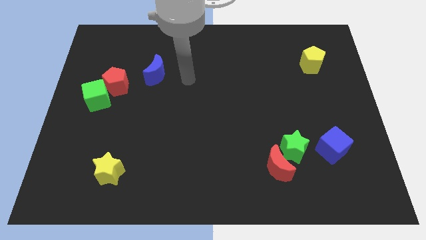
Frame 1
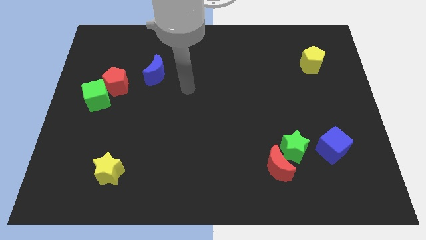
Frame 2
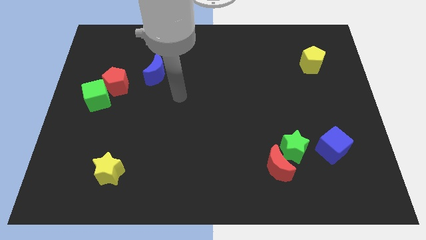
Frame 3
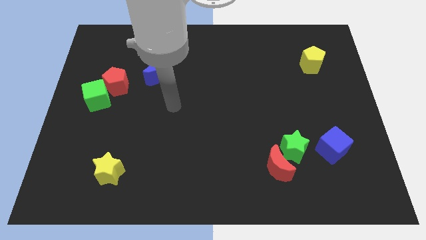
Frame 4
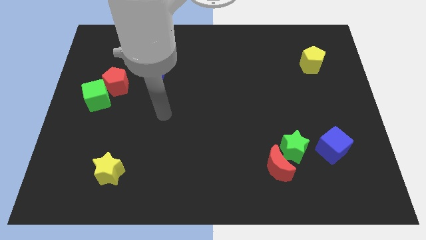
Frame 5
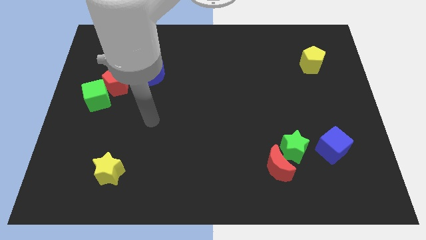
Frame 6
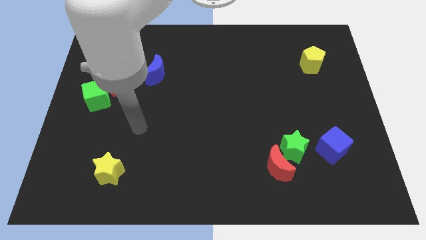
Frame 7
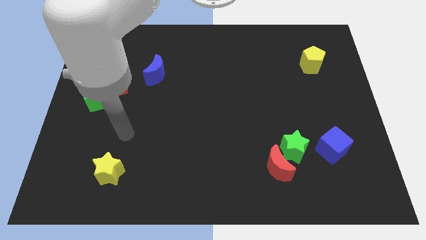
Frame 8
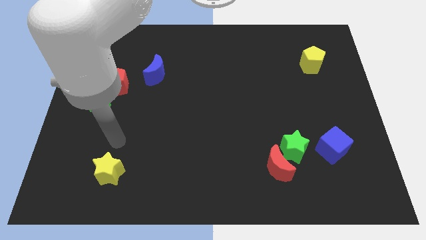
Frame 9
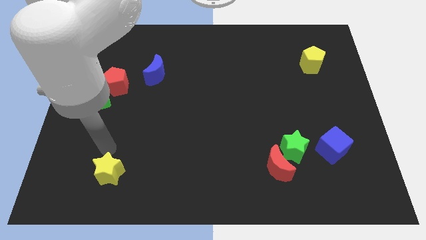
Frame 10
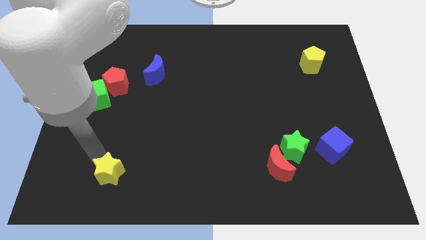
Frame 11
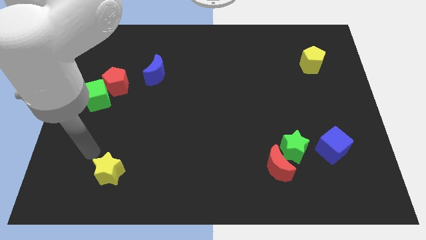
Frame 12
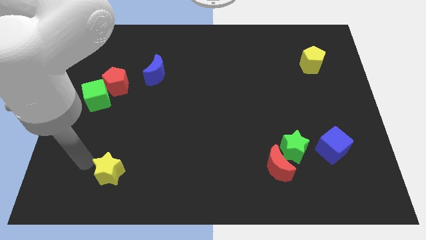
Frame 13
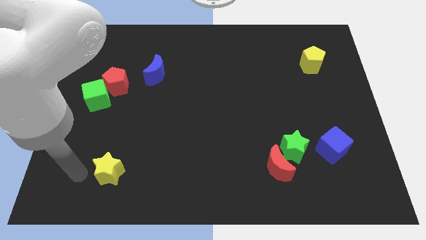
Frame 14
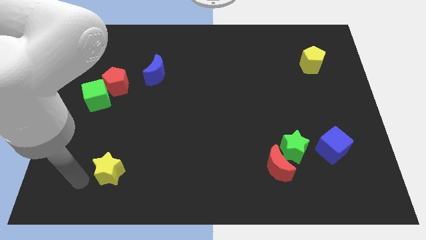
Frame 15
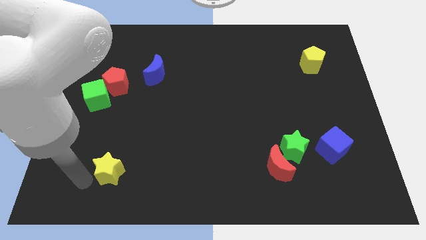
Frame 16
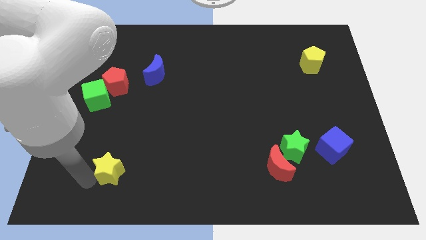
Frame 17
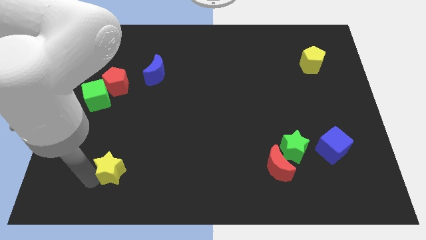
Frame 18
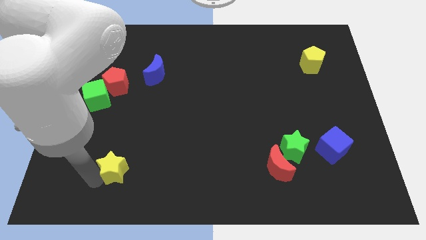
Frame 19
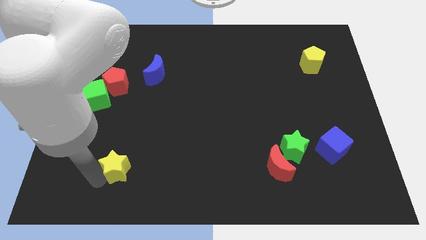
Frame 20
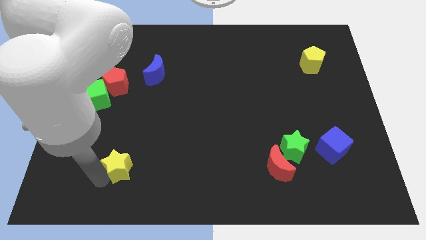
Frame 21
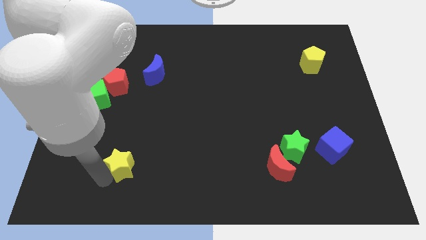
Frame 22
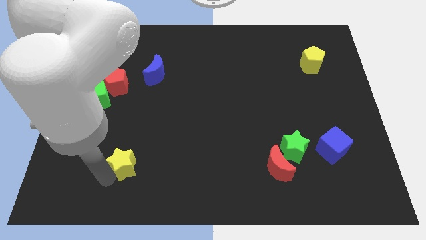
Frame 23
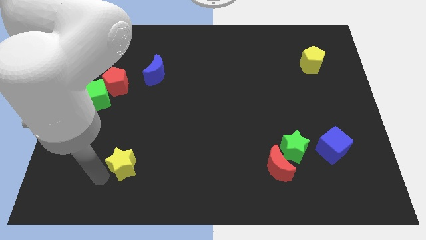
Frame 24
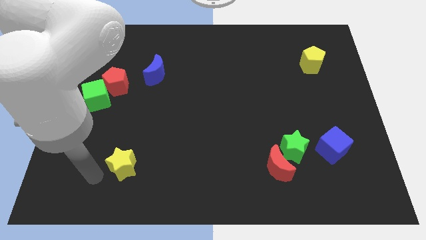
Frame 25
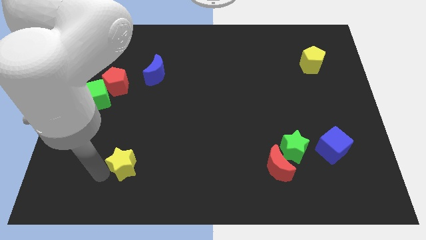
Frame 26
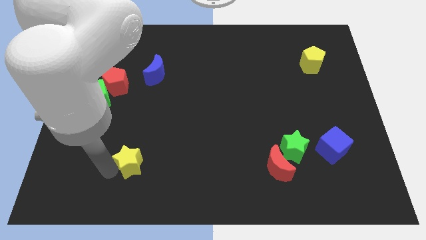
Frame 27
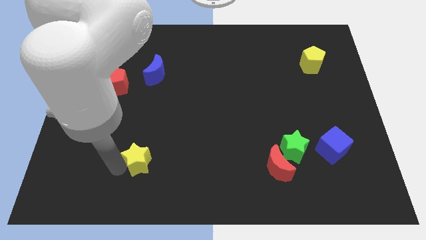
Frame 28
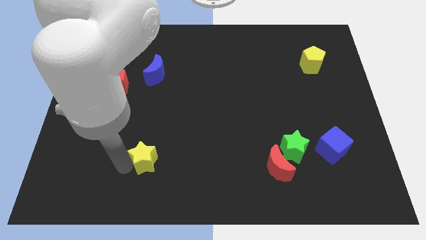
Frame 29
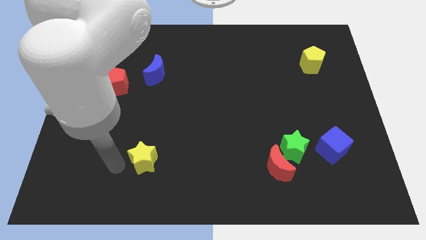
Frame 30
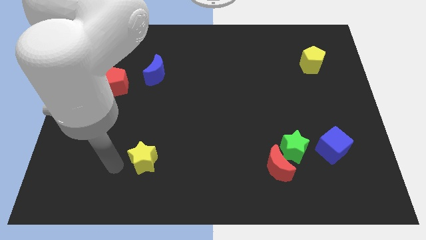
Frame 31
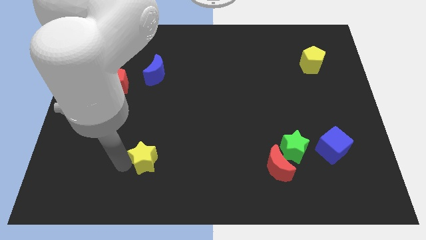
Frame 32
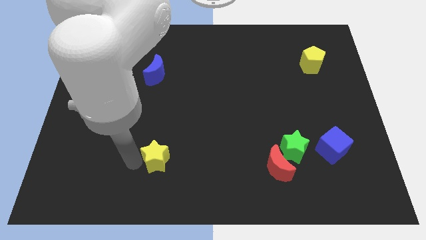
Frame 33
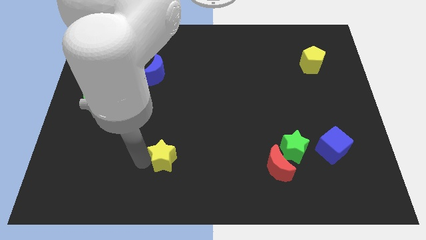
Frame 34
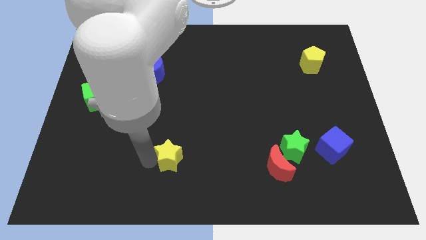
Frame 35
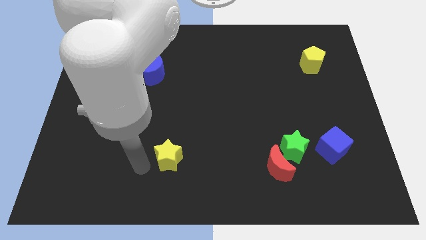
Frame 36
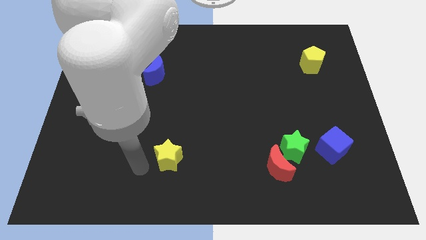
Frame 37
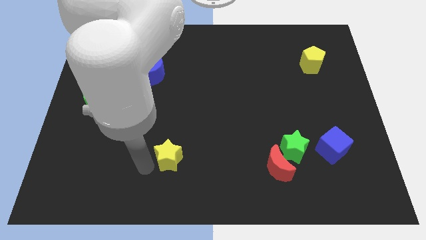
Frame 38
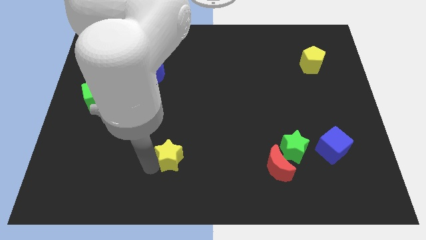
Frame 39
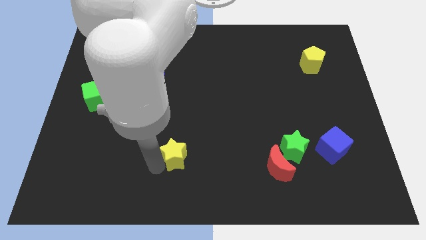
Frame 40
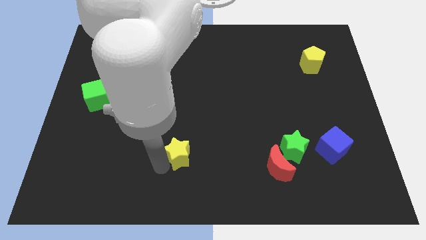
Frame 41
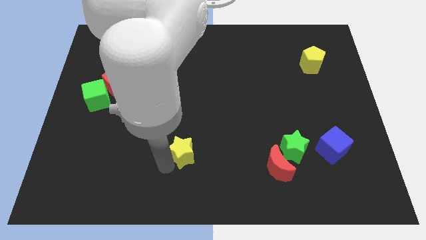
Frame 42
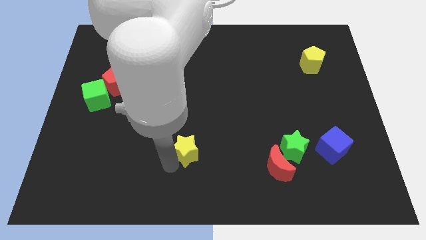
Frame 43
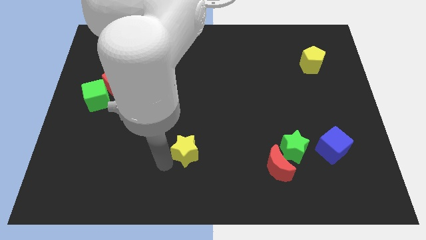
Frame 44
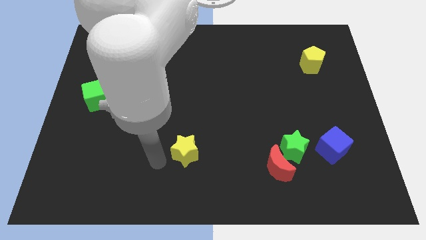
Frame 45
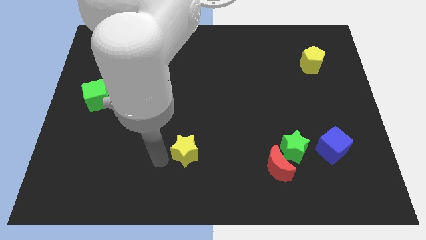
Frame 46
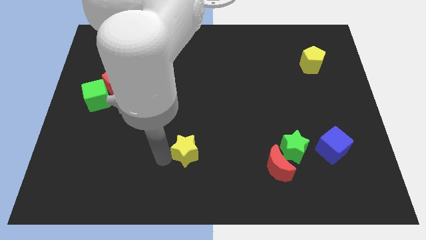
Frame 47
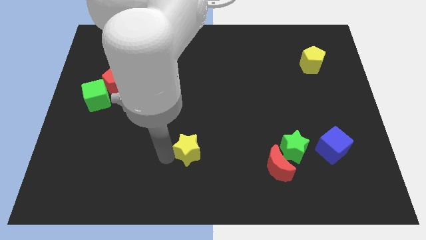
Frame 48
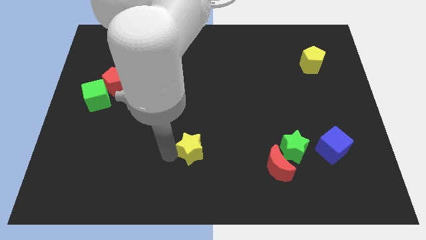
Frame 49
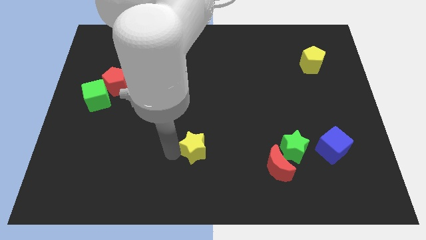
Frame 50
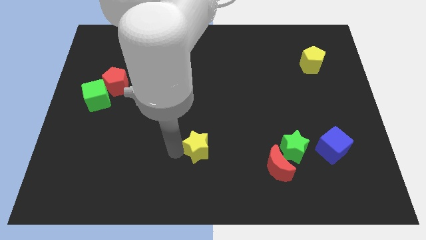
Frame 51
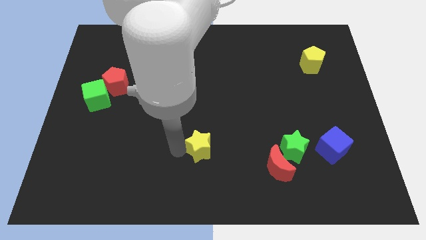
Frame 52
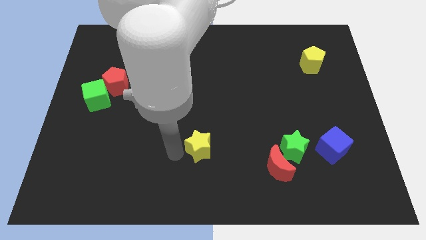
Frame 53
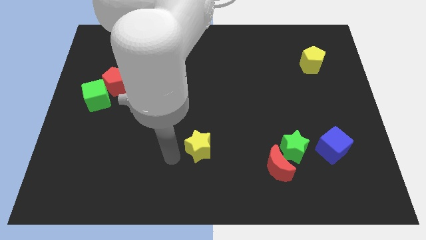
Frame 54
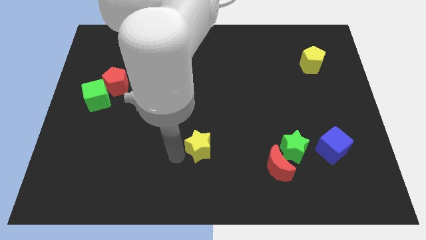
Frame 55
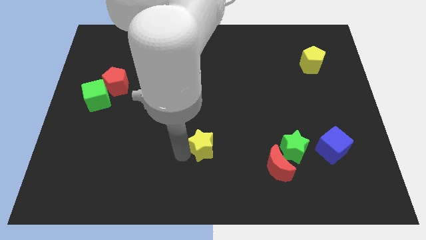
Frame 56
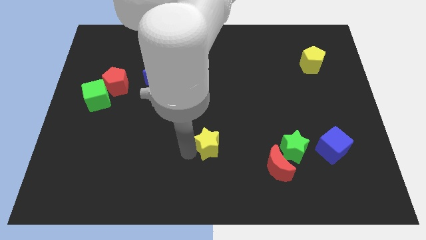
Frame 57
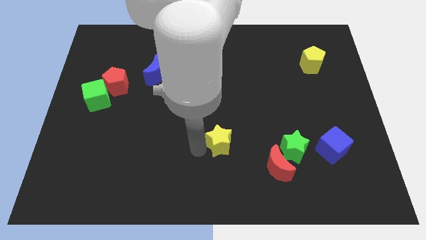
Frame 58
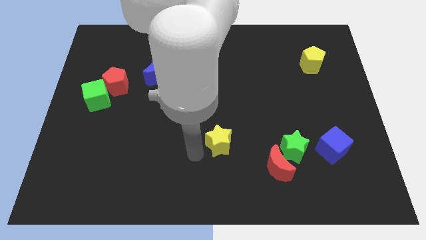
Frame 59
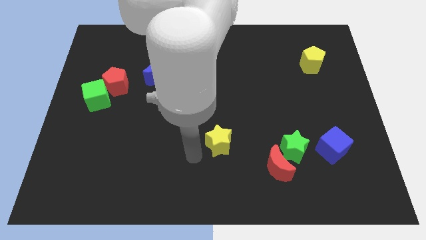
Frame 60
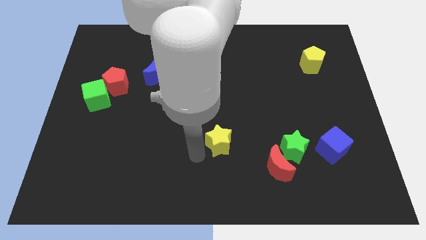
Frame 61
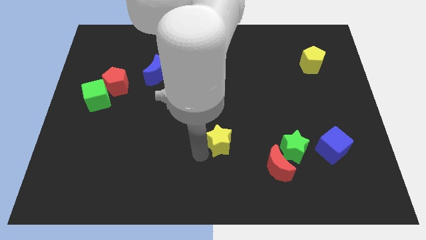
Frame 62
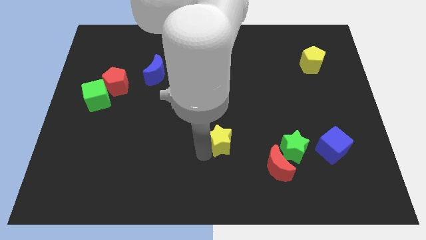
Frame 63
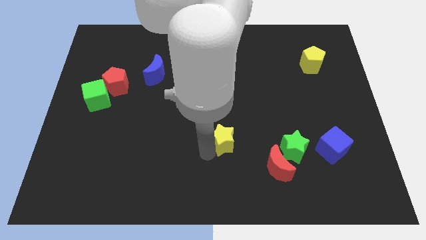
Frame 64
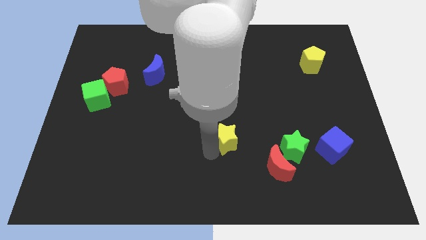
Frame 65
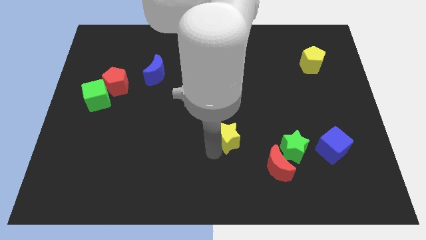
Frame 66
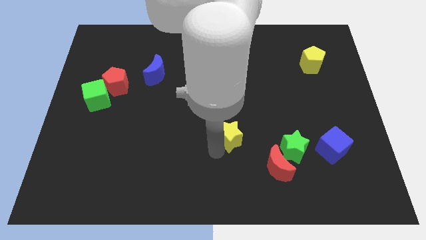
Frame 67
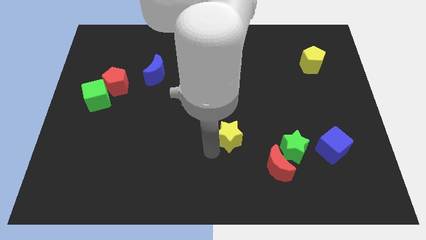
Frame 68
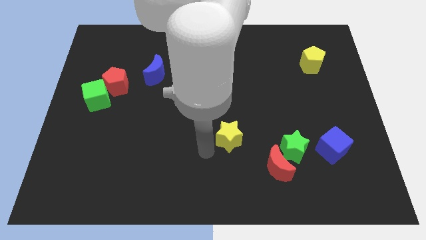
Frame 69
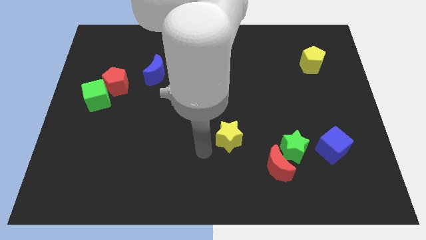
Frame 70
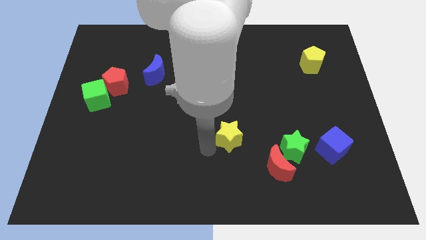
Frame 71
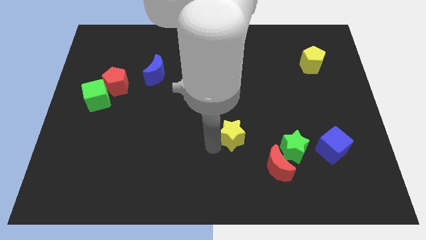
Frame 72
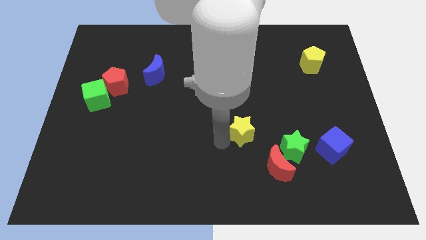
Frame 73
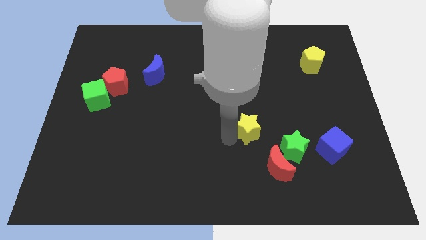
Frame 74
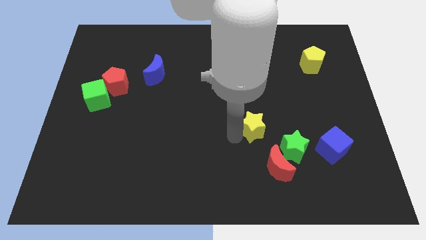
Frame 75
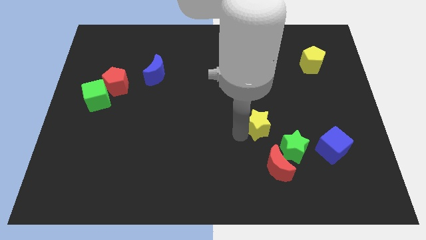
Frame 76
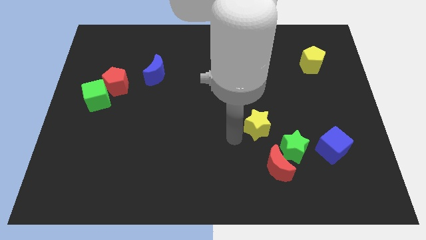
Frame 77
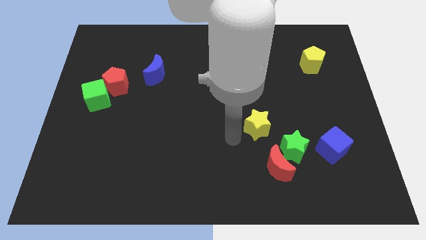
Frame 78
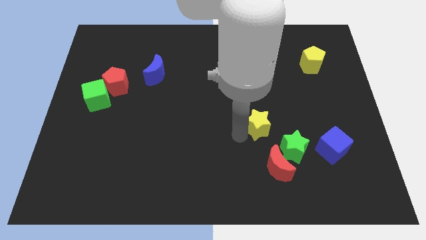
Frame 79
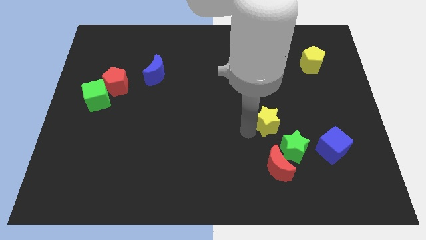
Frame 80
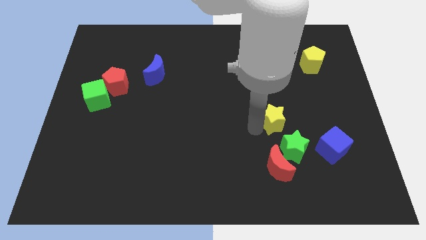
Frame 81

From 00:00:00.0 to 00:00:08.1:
move the yellow star to the top side of the green star
